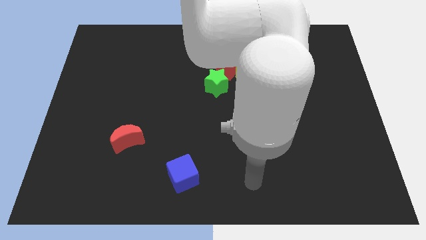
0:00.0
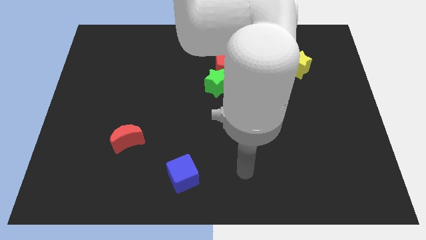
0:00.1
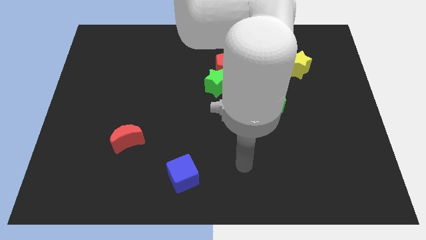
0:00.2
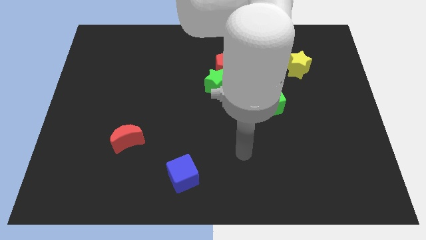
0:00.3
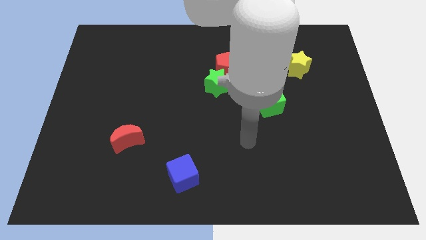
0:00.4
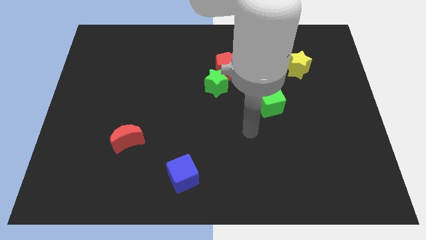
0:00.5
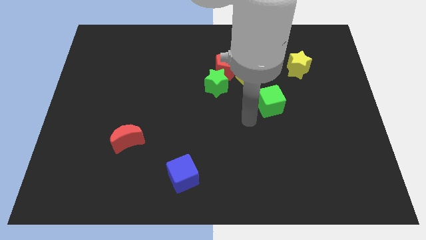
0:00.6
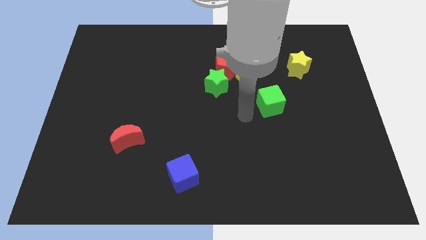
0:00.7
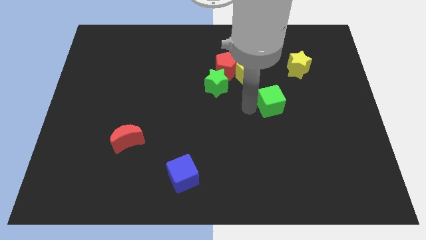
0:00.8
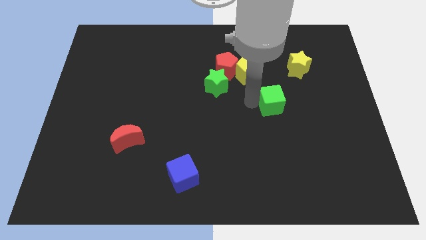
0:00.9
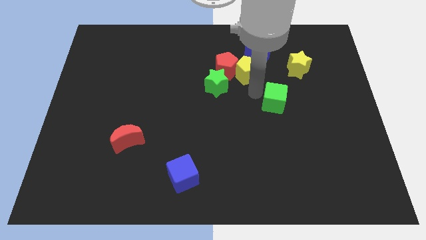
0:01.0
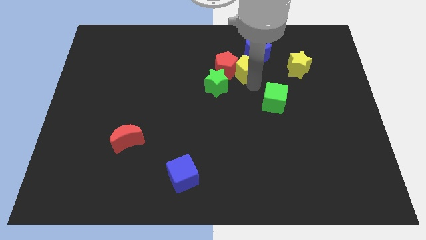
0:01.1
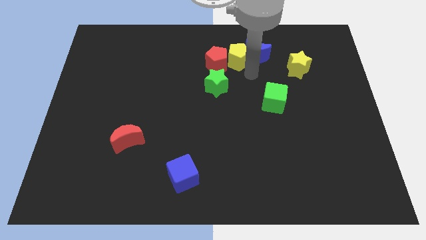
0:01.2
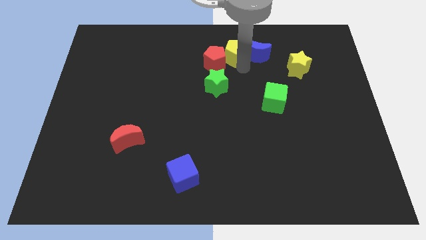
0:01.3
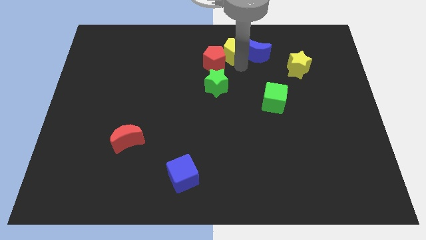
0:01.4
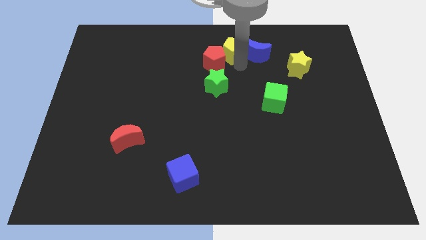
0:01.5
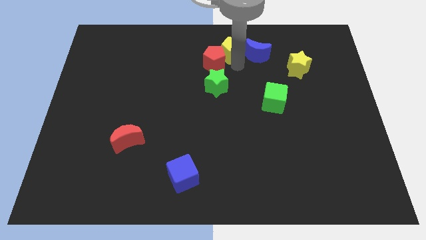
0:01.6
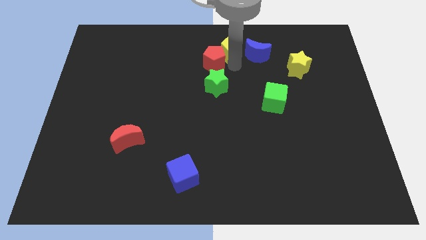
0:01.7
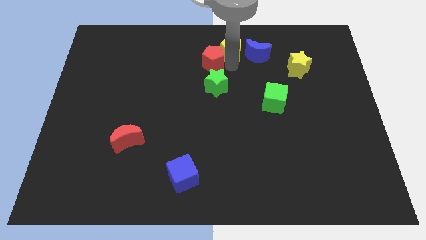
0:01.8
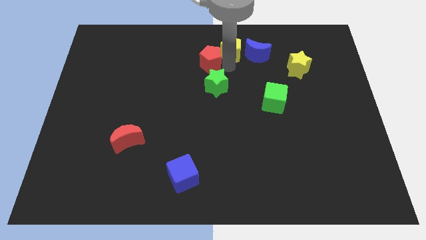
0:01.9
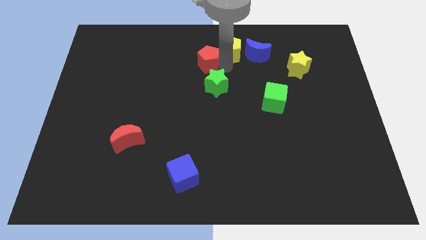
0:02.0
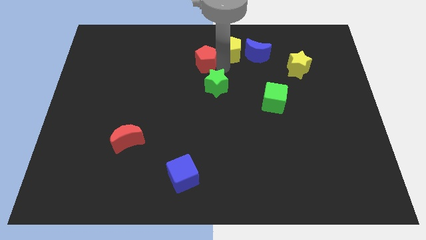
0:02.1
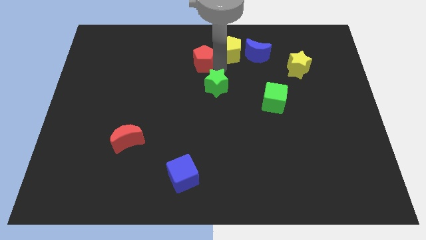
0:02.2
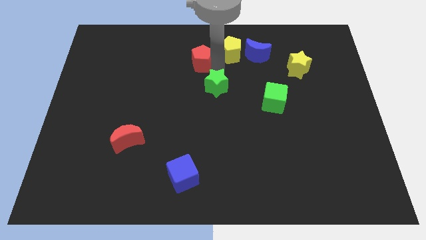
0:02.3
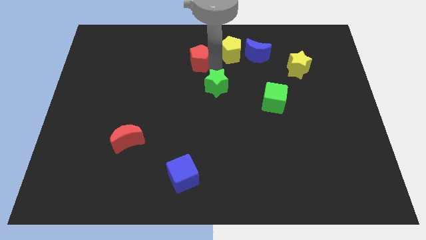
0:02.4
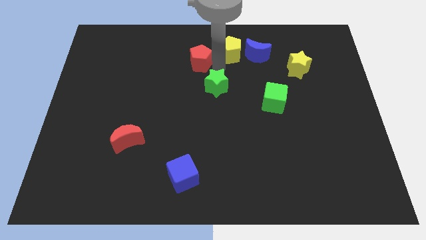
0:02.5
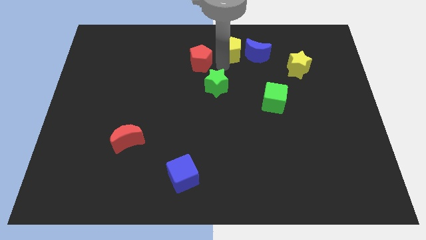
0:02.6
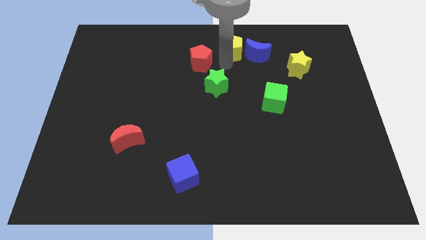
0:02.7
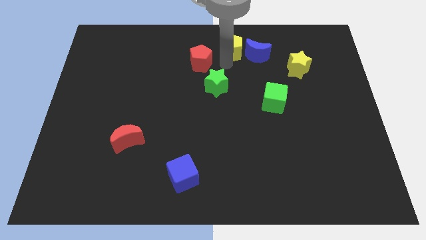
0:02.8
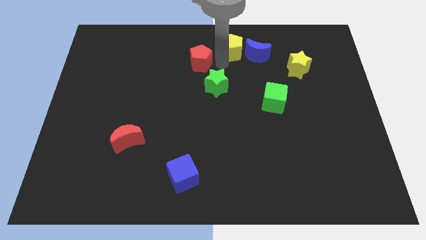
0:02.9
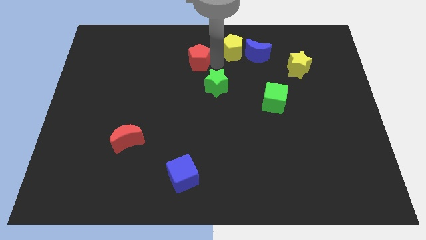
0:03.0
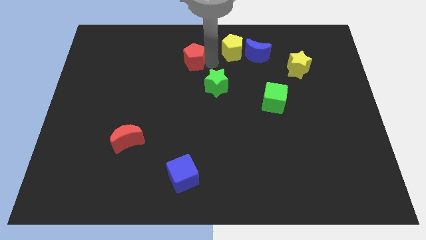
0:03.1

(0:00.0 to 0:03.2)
separate the red pentagon from the yellow pentagon, green star, and blue moon

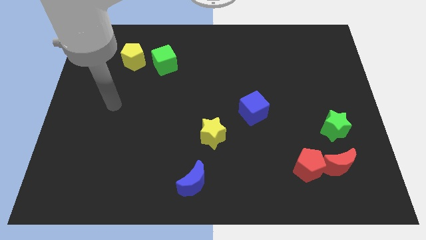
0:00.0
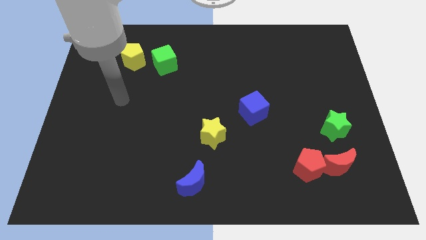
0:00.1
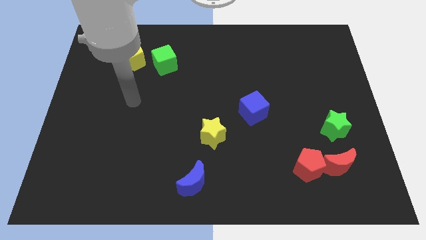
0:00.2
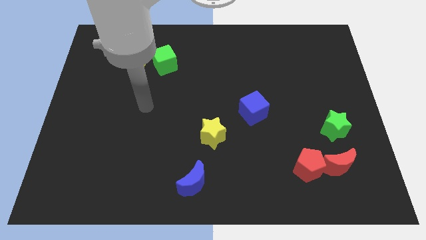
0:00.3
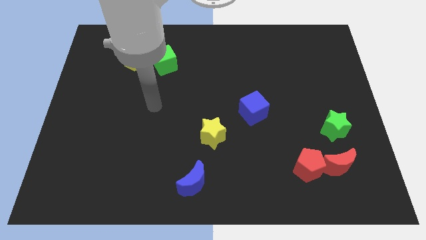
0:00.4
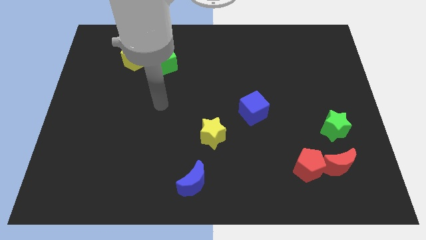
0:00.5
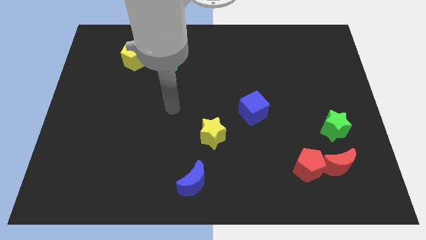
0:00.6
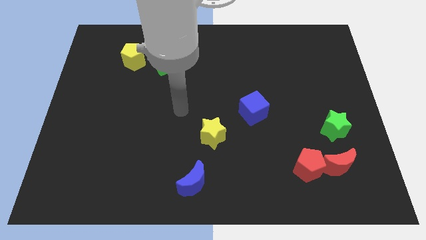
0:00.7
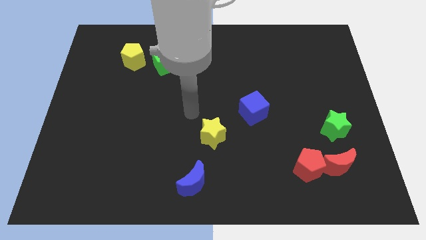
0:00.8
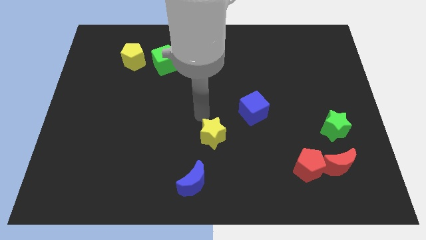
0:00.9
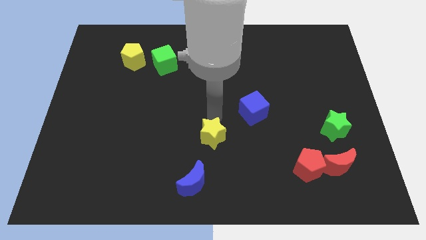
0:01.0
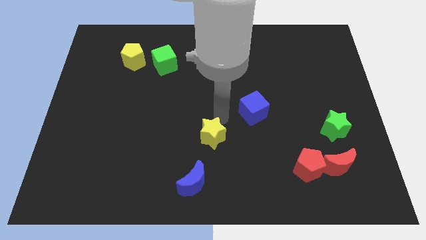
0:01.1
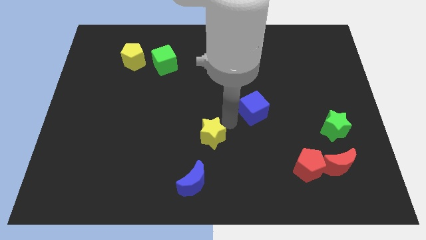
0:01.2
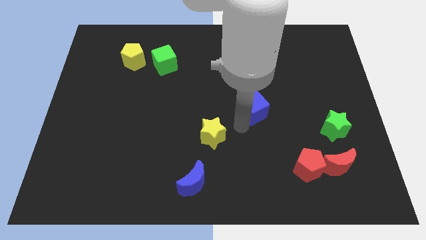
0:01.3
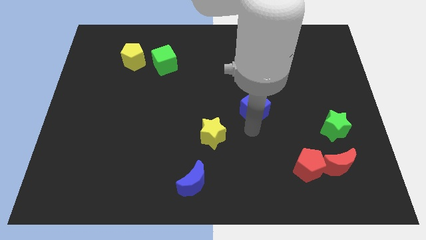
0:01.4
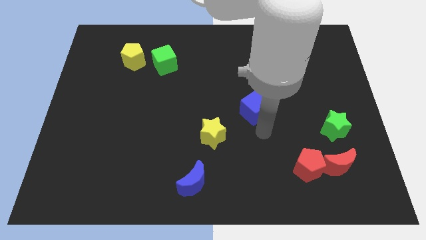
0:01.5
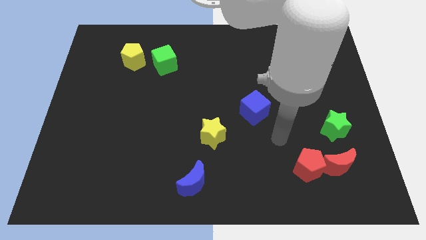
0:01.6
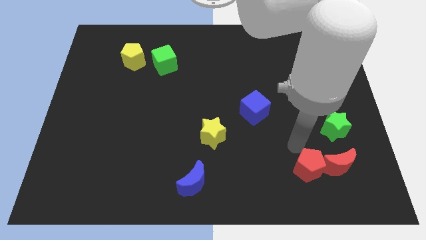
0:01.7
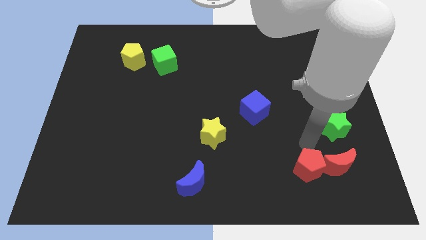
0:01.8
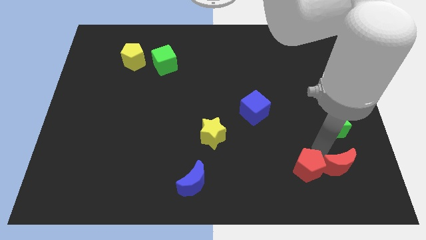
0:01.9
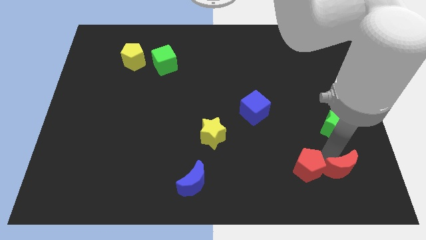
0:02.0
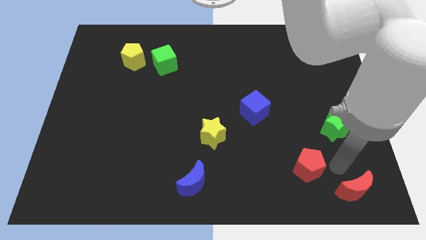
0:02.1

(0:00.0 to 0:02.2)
pull the red pentagon apart from the red moon

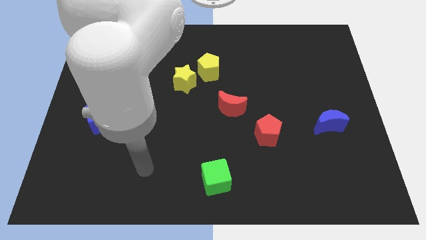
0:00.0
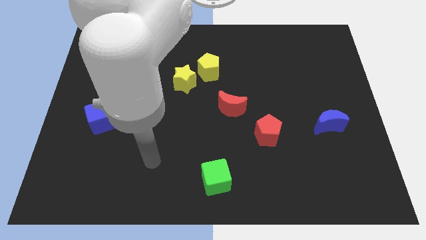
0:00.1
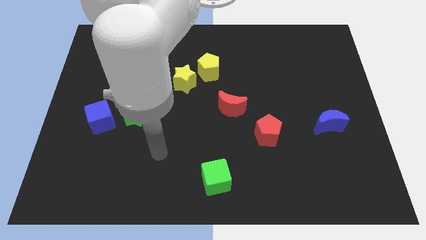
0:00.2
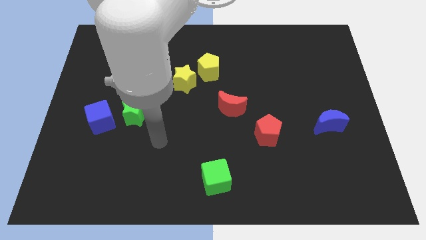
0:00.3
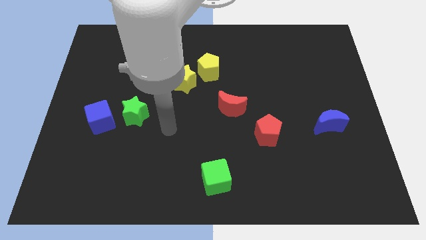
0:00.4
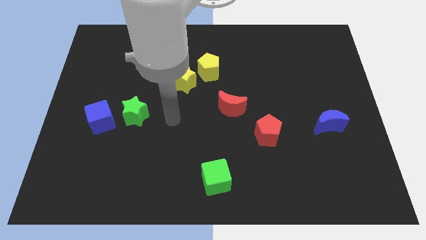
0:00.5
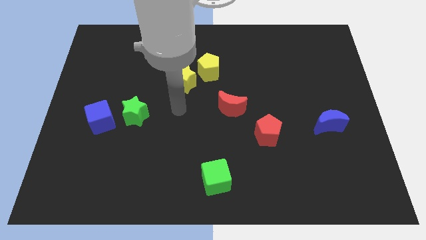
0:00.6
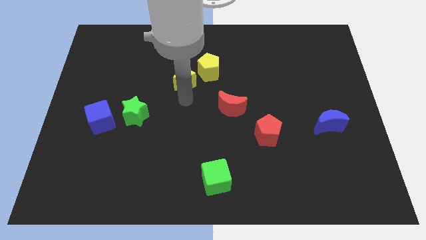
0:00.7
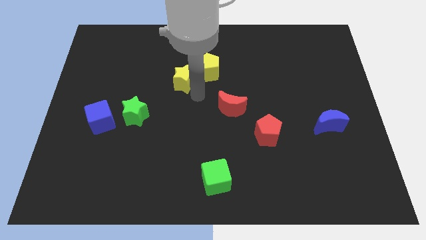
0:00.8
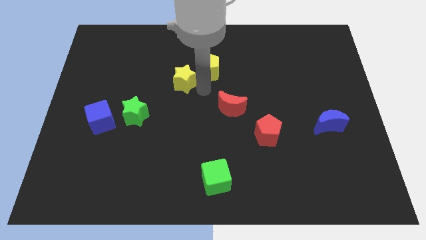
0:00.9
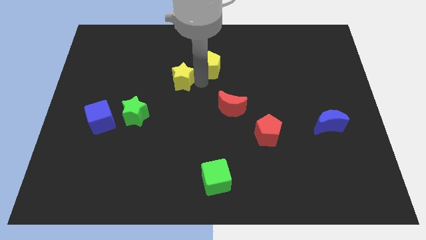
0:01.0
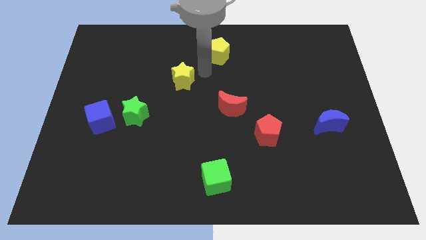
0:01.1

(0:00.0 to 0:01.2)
pull the yellow star apart from the yellow pentagon

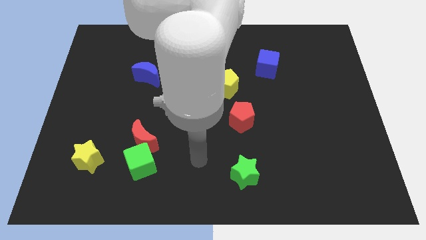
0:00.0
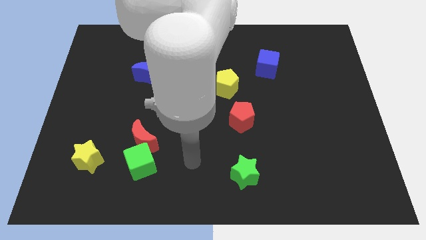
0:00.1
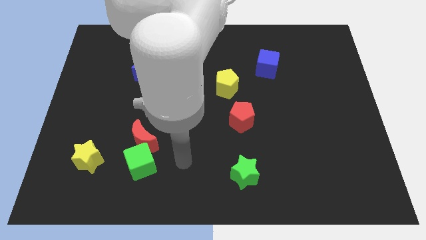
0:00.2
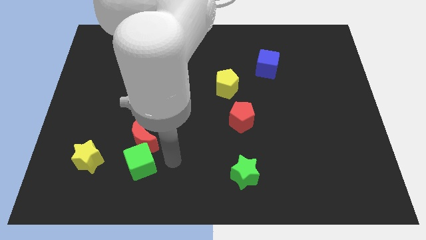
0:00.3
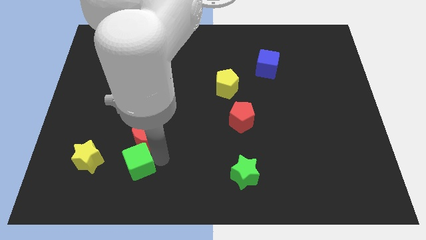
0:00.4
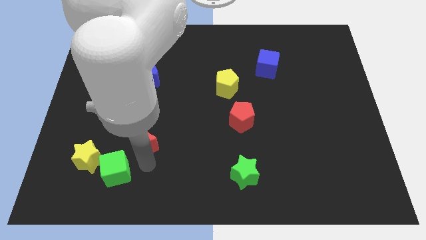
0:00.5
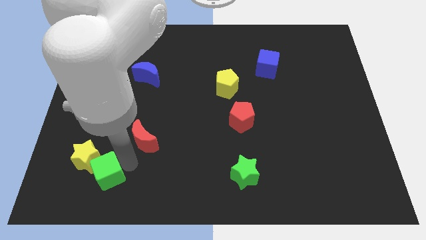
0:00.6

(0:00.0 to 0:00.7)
separate the red moon from the green cube

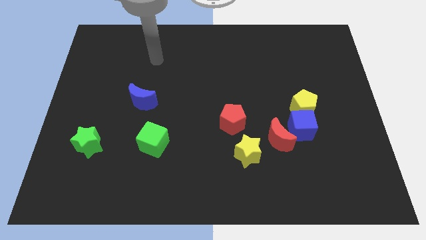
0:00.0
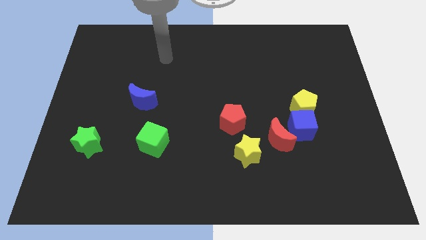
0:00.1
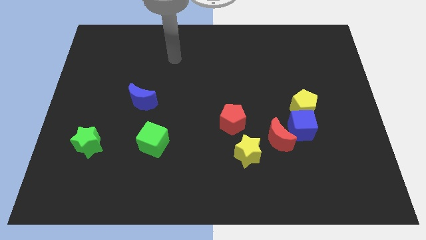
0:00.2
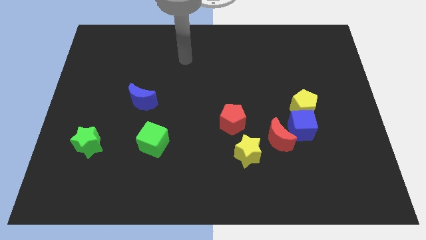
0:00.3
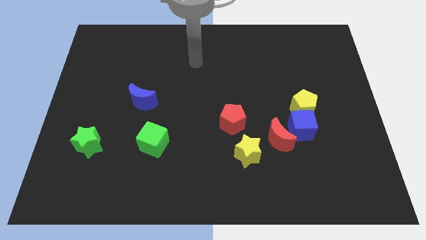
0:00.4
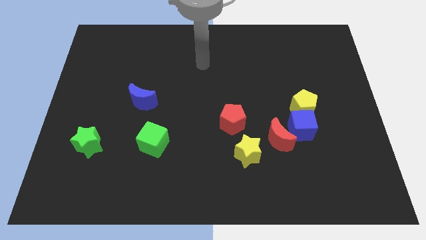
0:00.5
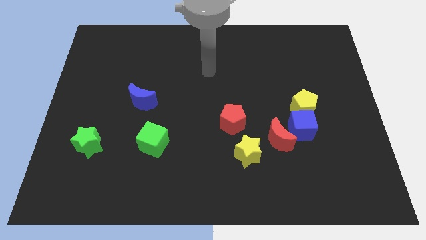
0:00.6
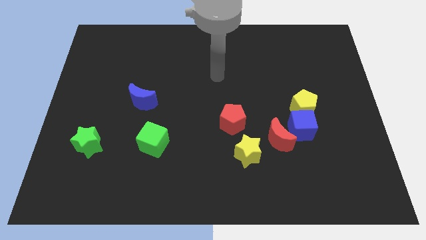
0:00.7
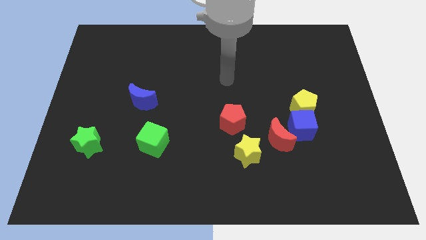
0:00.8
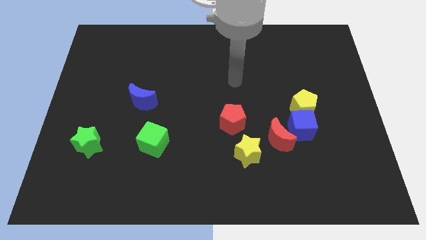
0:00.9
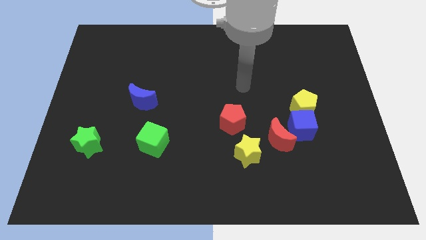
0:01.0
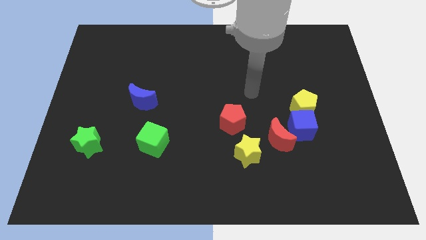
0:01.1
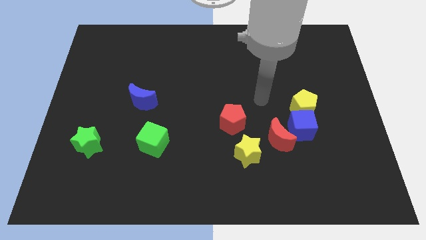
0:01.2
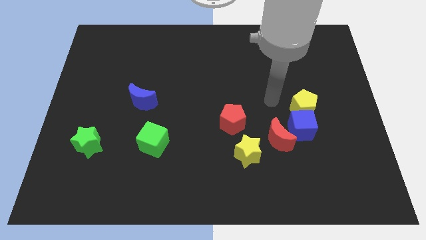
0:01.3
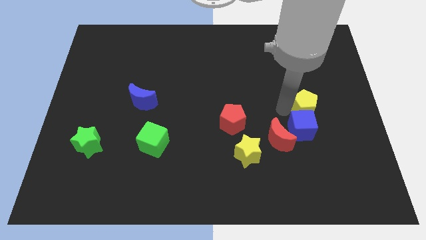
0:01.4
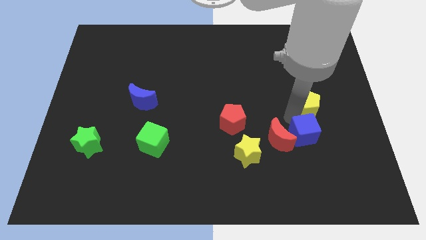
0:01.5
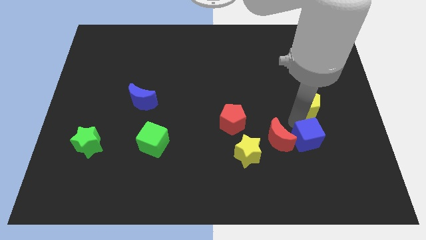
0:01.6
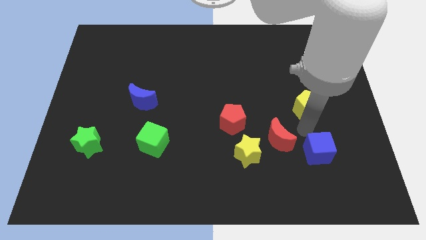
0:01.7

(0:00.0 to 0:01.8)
pull the yellow pentagon apart from the blue cube

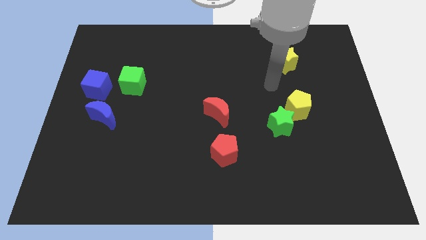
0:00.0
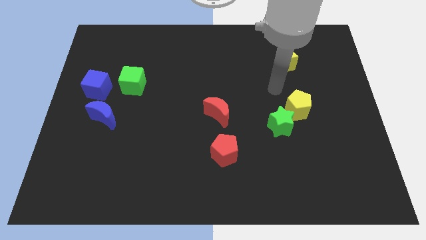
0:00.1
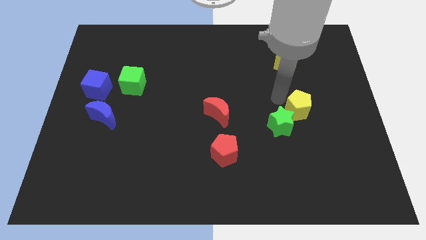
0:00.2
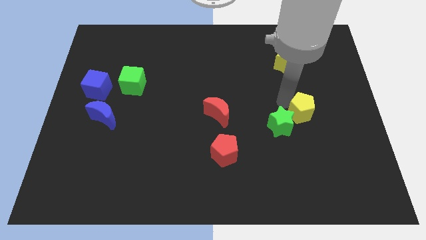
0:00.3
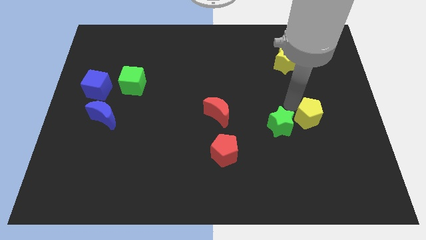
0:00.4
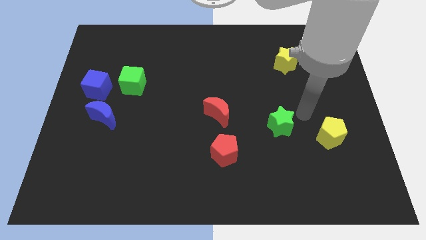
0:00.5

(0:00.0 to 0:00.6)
move the green star away from the yellow pentagon
